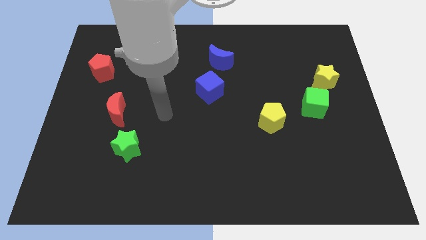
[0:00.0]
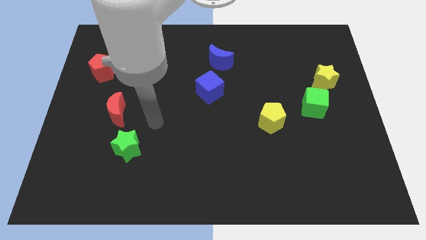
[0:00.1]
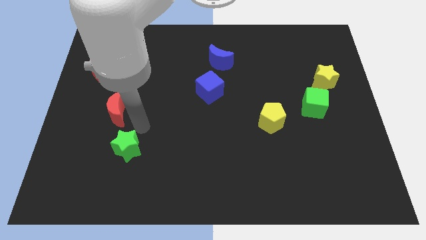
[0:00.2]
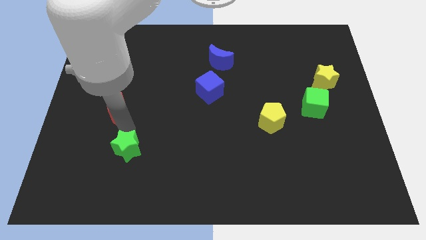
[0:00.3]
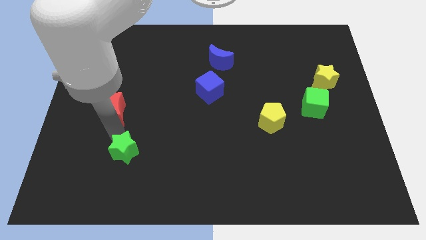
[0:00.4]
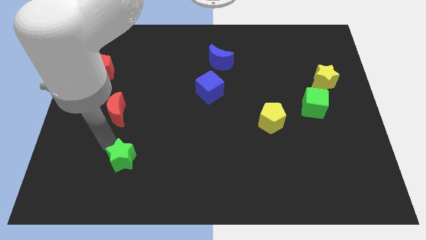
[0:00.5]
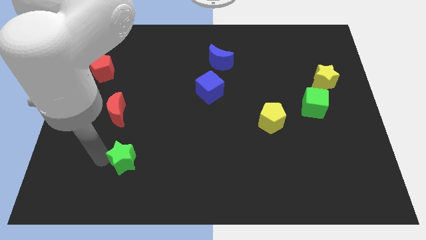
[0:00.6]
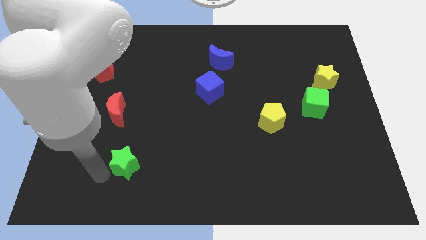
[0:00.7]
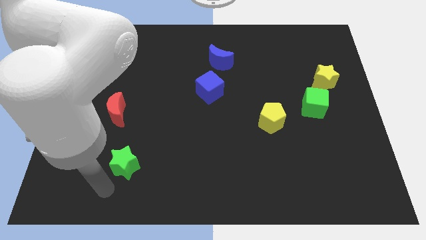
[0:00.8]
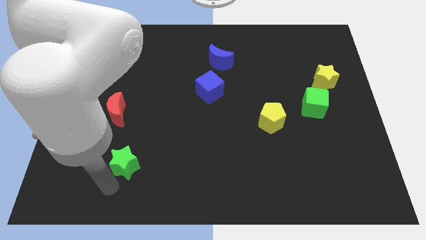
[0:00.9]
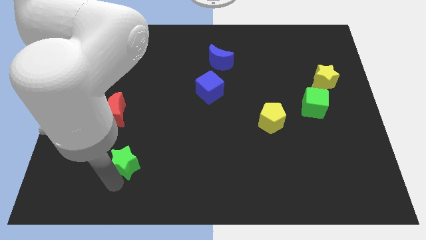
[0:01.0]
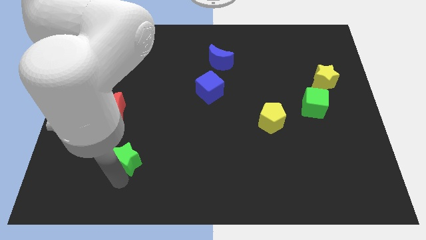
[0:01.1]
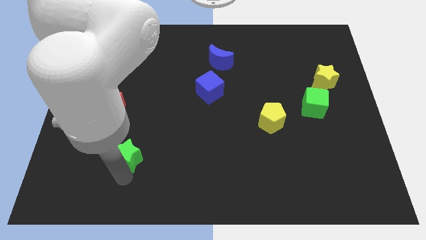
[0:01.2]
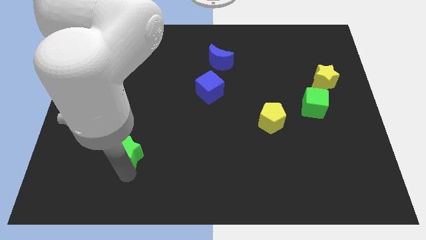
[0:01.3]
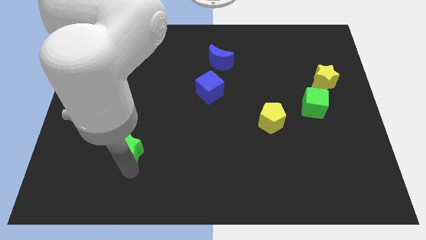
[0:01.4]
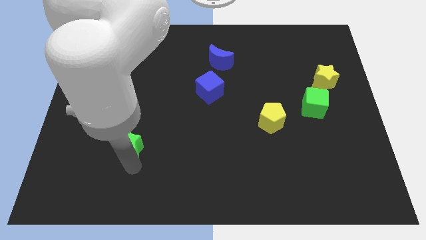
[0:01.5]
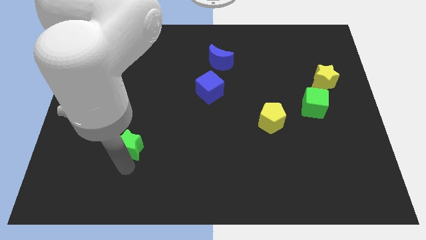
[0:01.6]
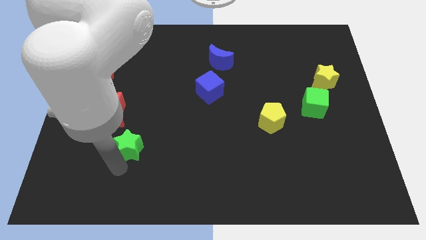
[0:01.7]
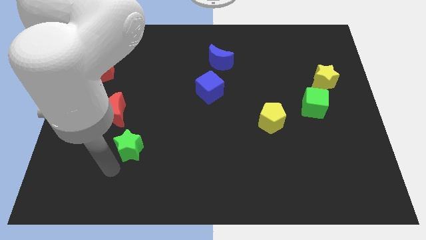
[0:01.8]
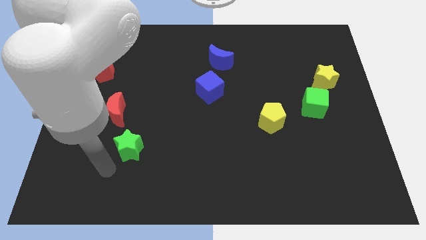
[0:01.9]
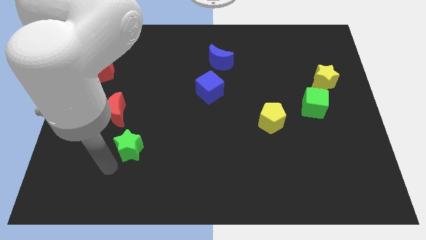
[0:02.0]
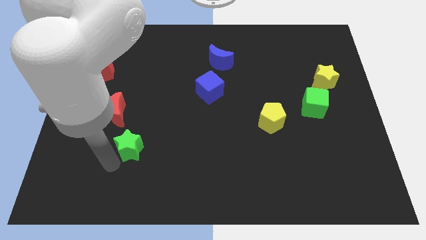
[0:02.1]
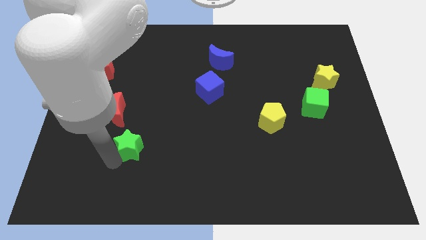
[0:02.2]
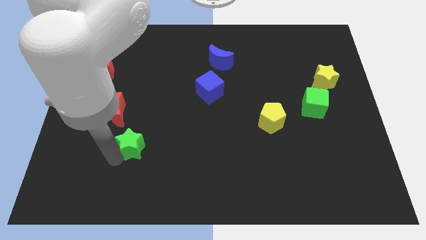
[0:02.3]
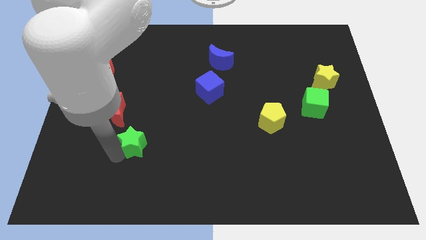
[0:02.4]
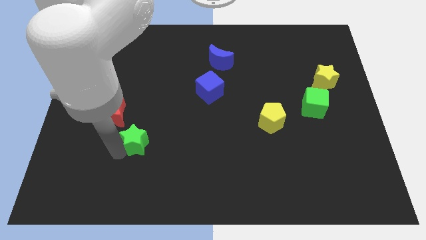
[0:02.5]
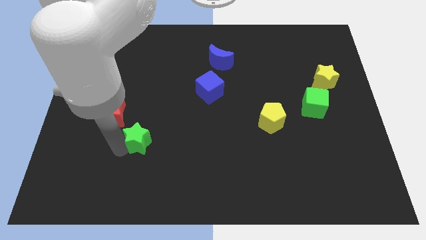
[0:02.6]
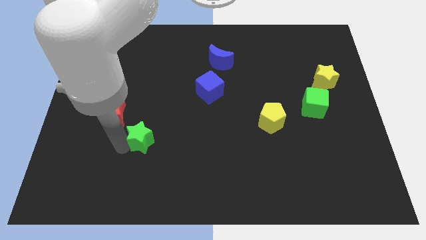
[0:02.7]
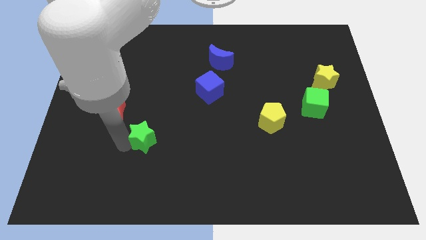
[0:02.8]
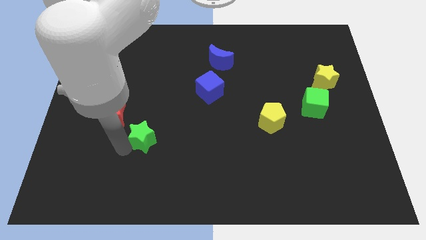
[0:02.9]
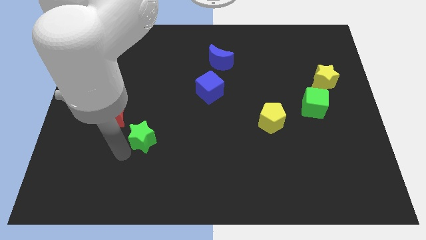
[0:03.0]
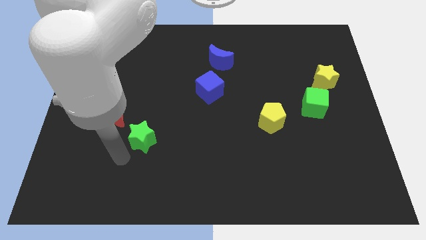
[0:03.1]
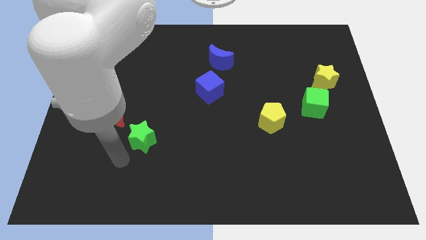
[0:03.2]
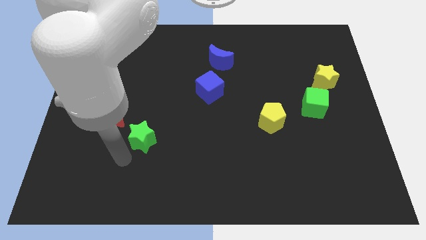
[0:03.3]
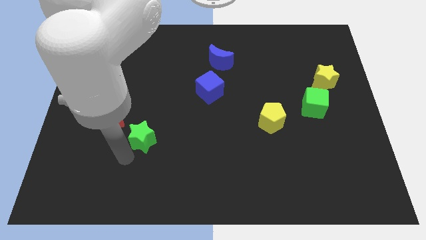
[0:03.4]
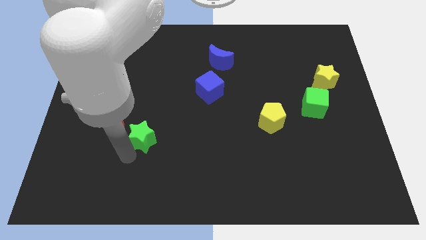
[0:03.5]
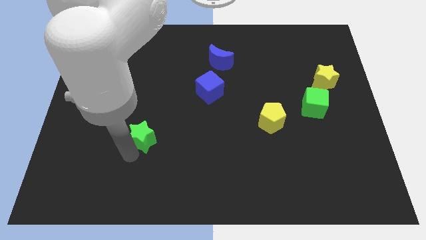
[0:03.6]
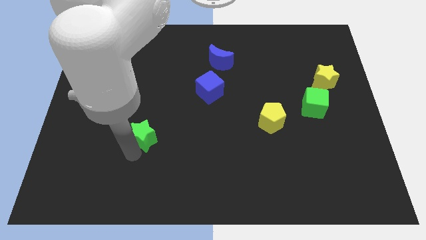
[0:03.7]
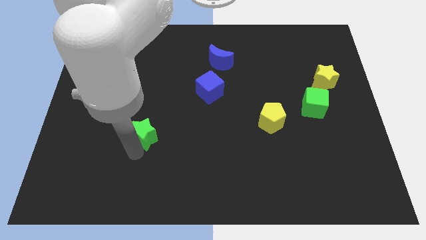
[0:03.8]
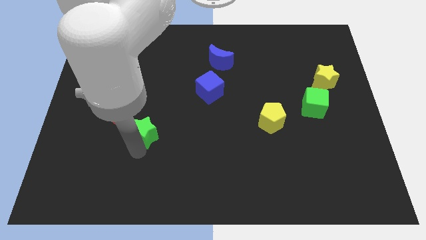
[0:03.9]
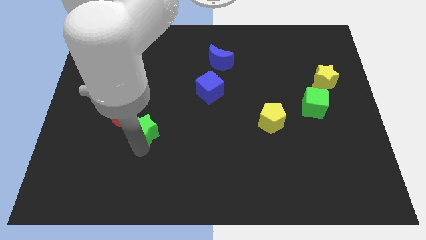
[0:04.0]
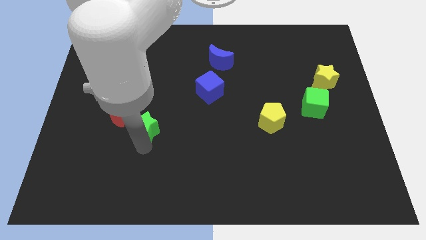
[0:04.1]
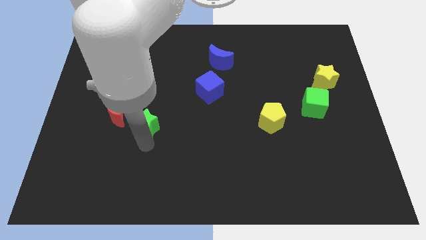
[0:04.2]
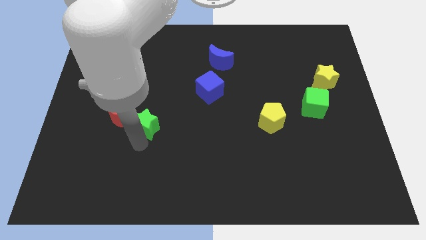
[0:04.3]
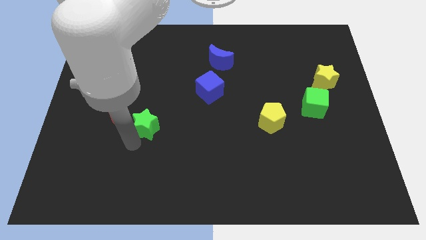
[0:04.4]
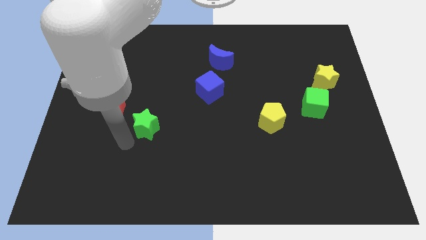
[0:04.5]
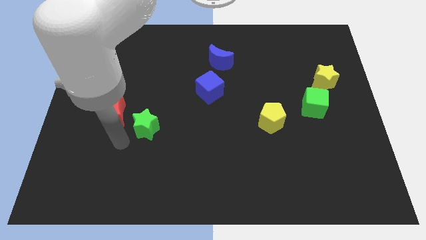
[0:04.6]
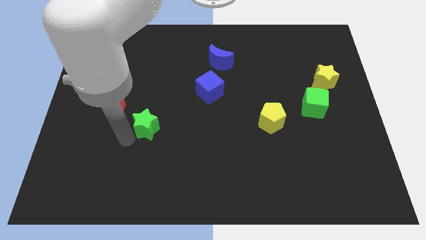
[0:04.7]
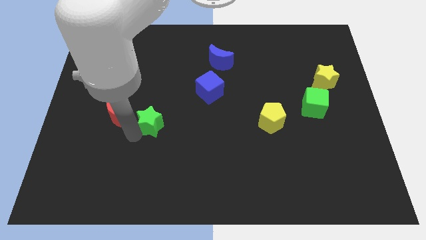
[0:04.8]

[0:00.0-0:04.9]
slightly move the green star up and then to the right

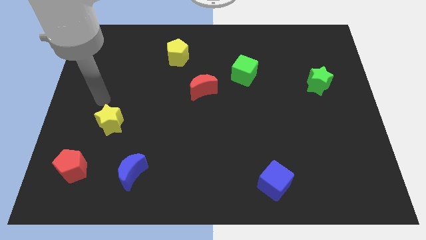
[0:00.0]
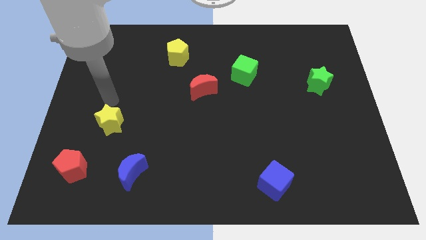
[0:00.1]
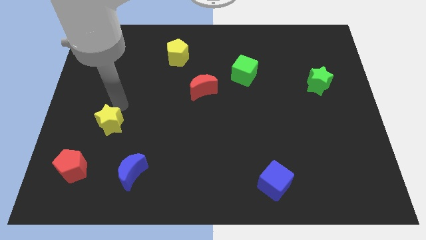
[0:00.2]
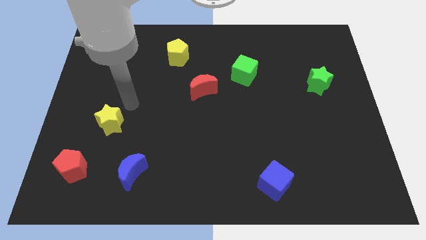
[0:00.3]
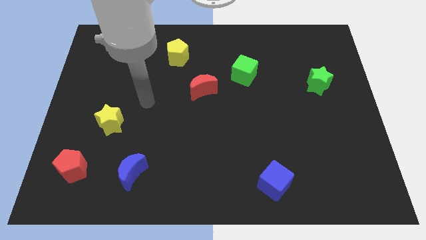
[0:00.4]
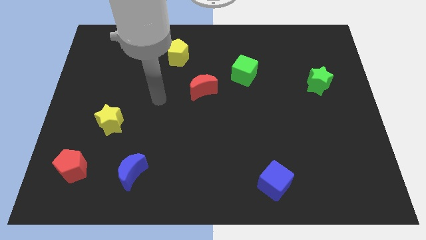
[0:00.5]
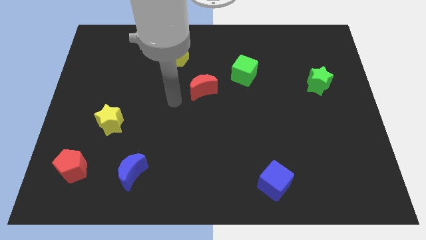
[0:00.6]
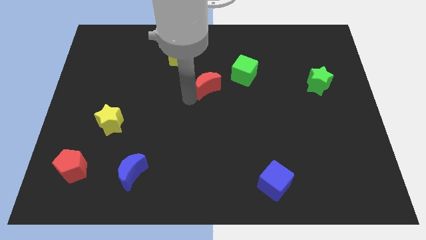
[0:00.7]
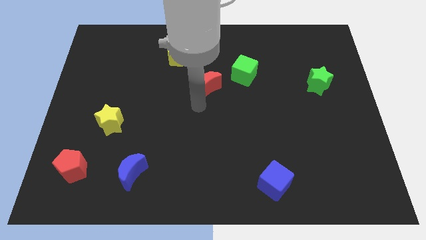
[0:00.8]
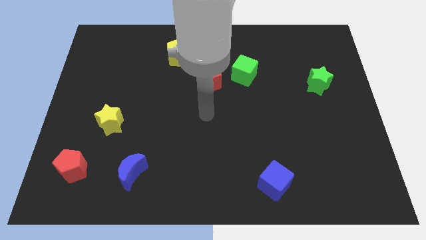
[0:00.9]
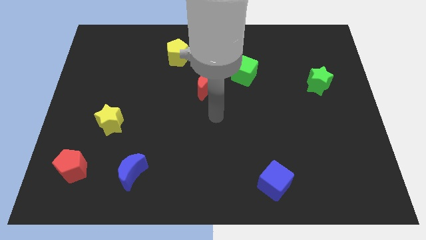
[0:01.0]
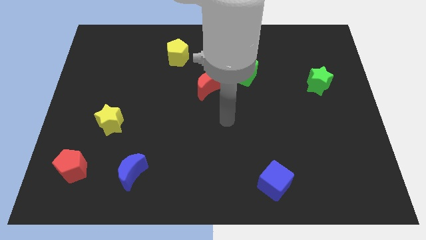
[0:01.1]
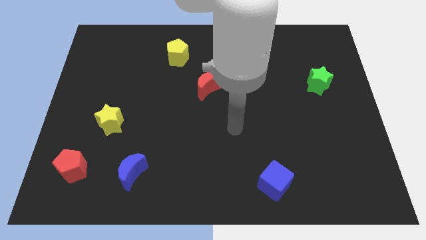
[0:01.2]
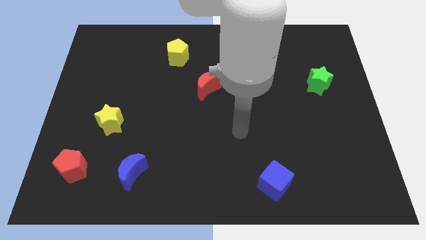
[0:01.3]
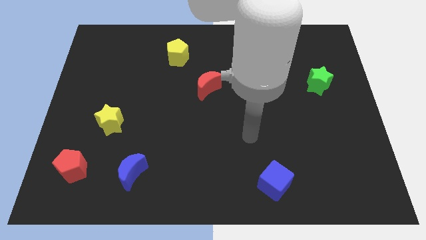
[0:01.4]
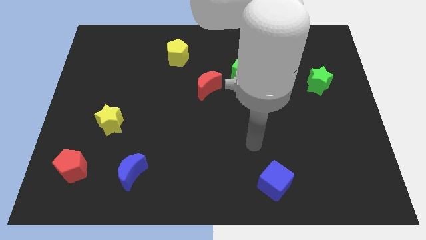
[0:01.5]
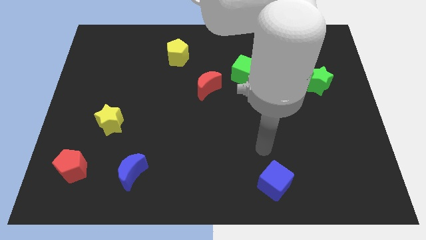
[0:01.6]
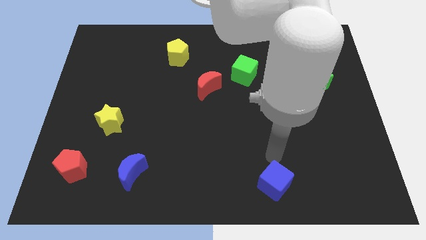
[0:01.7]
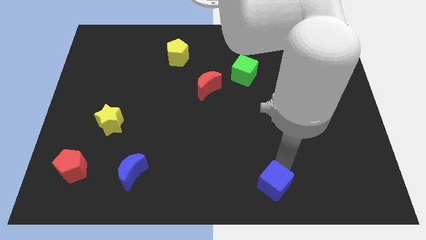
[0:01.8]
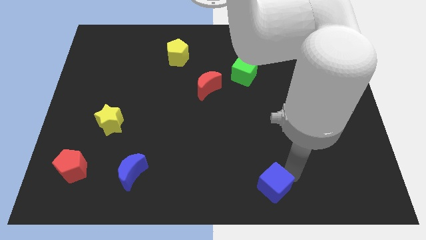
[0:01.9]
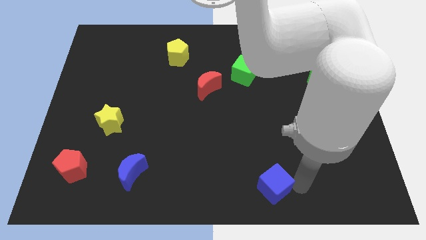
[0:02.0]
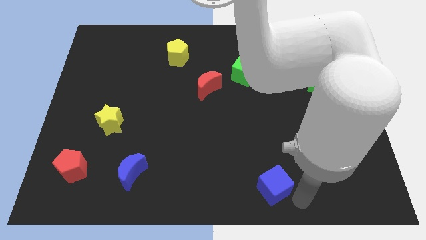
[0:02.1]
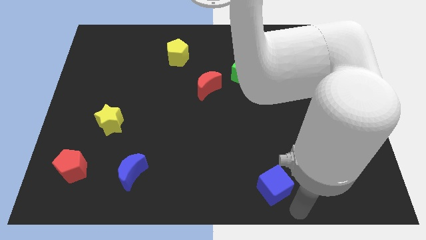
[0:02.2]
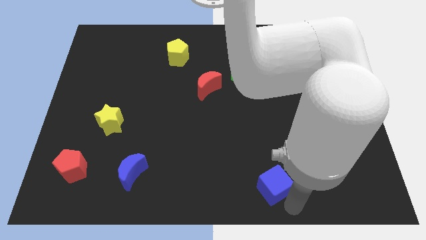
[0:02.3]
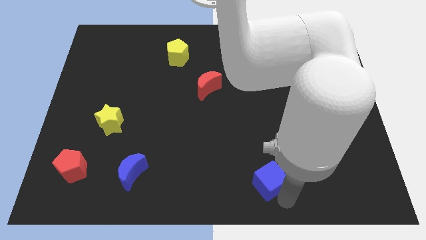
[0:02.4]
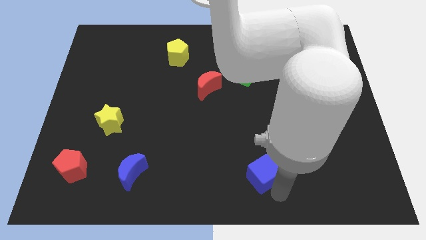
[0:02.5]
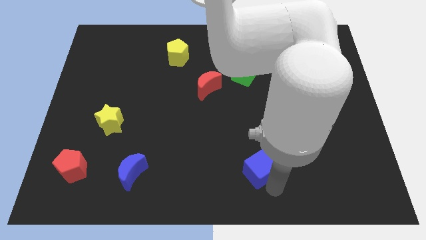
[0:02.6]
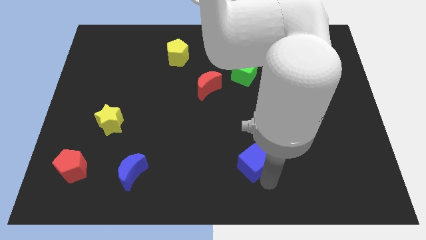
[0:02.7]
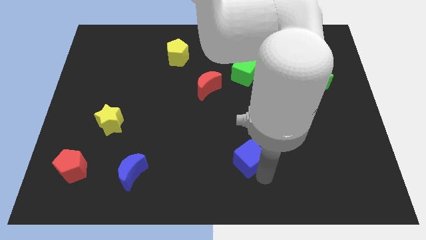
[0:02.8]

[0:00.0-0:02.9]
push the blue cube diagonally up and to the left slightly
